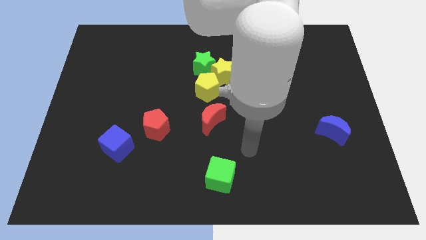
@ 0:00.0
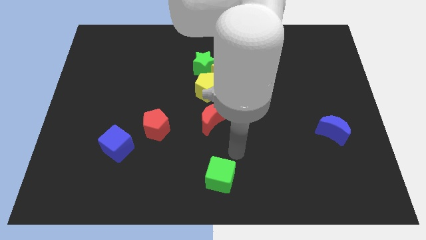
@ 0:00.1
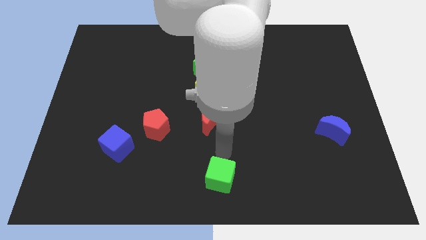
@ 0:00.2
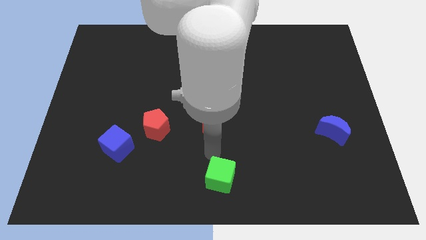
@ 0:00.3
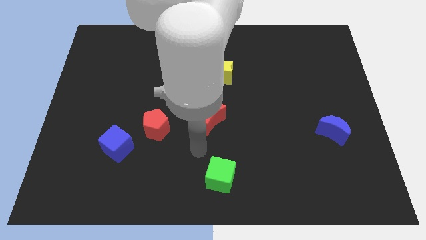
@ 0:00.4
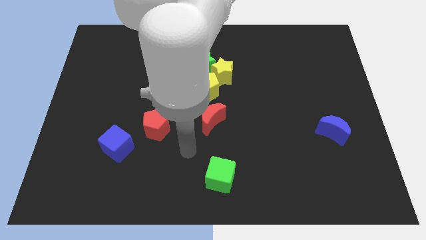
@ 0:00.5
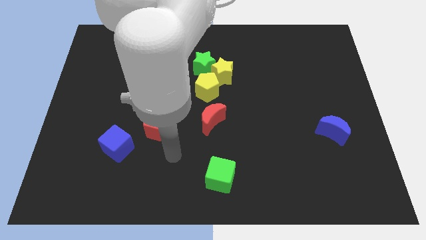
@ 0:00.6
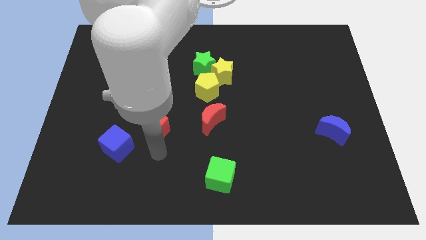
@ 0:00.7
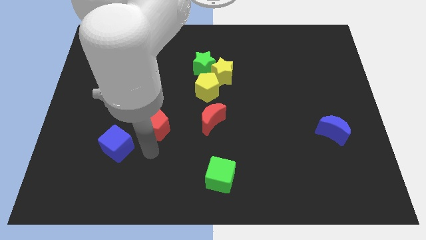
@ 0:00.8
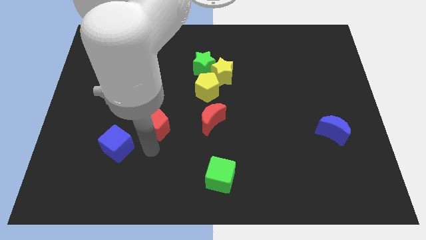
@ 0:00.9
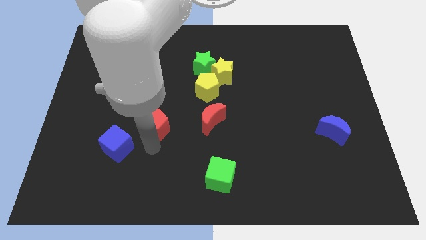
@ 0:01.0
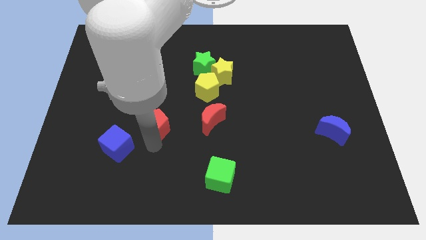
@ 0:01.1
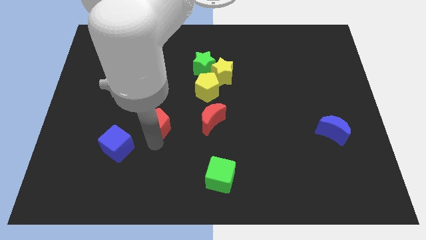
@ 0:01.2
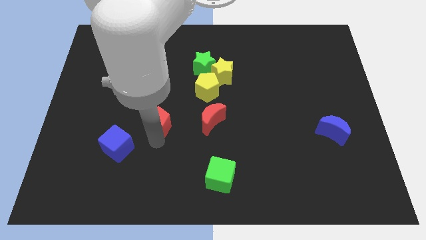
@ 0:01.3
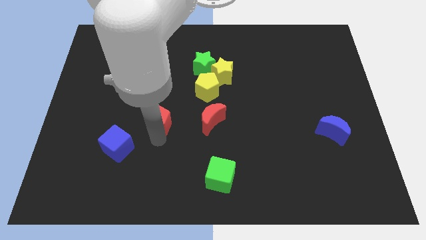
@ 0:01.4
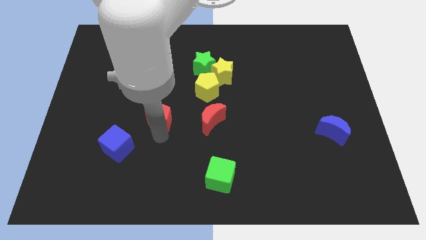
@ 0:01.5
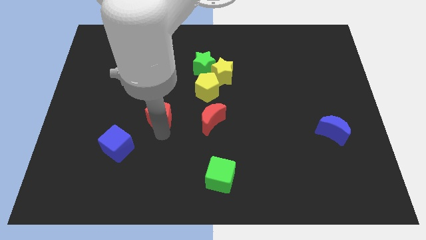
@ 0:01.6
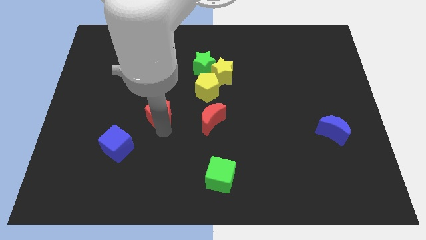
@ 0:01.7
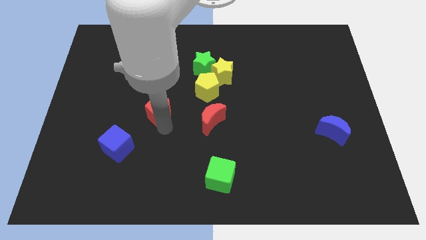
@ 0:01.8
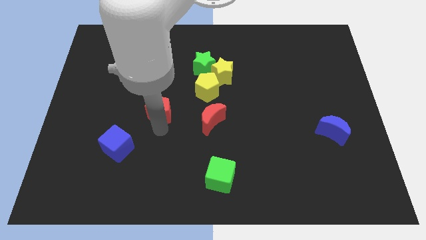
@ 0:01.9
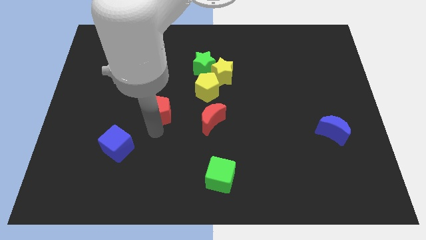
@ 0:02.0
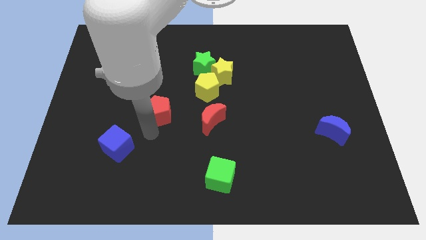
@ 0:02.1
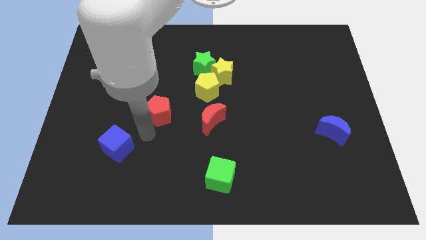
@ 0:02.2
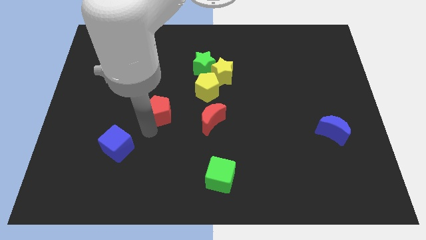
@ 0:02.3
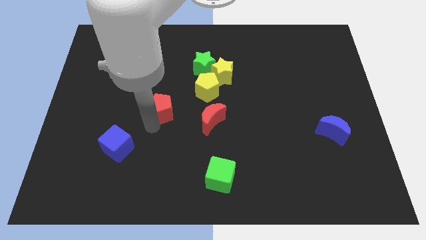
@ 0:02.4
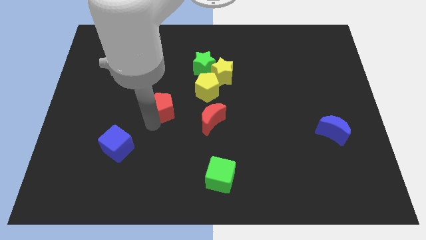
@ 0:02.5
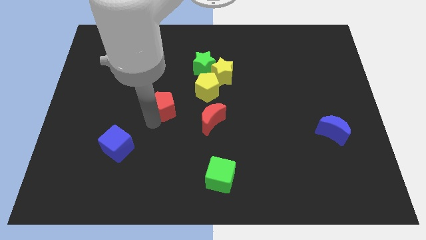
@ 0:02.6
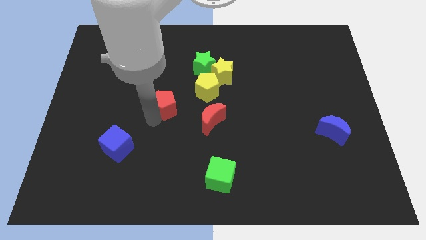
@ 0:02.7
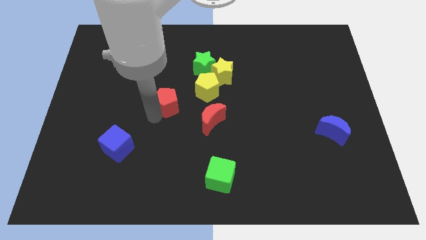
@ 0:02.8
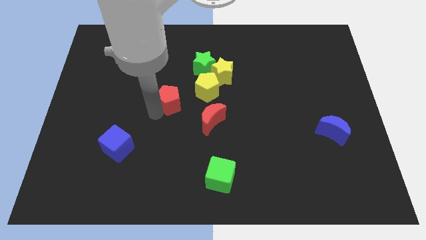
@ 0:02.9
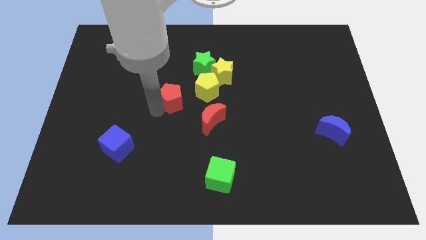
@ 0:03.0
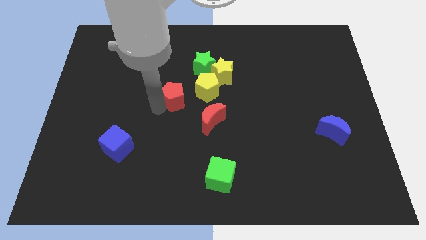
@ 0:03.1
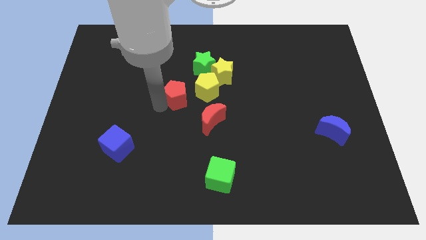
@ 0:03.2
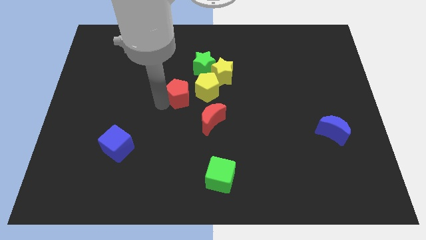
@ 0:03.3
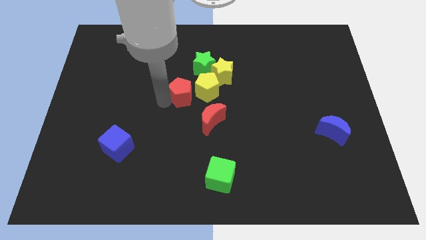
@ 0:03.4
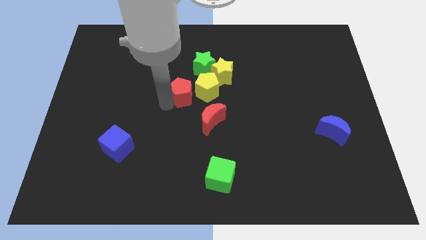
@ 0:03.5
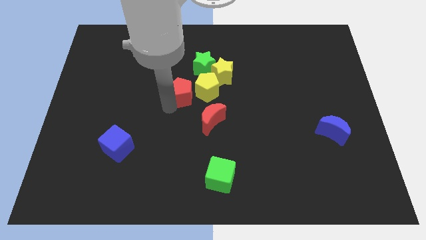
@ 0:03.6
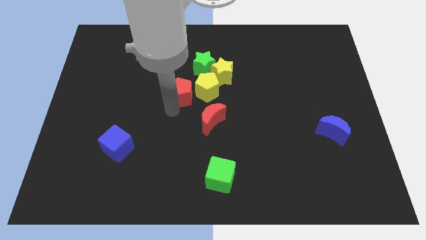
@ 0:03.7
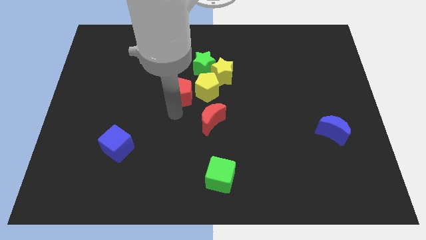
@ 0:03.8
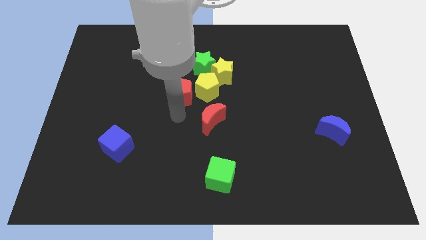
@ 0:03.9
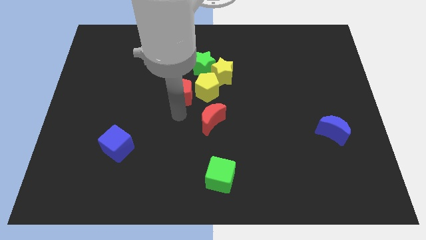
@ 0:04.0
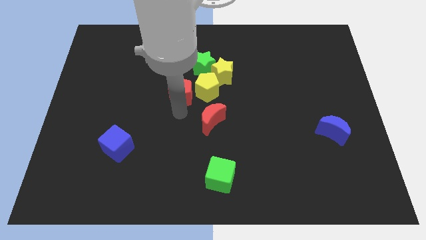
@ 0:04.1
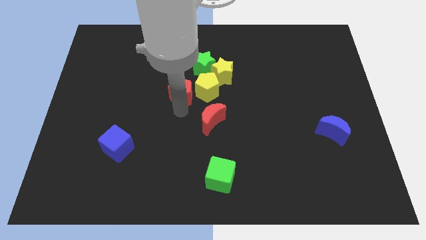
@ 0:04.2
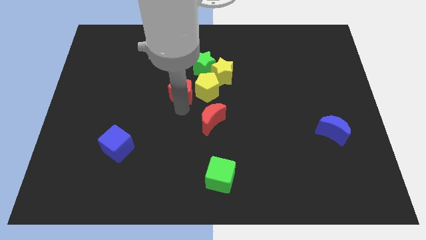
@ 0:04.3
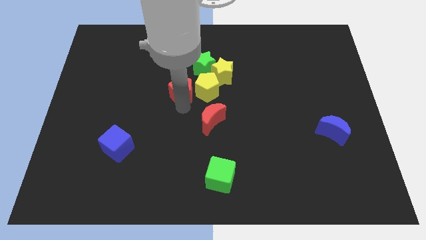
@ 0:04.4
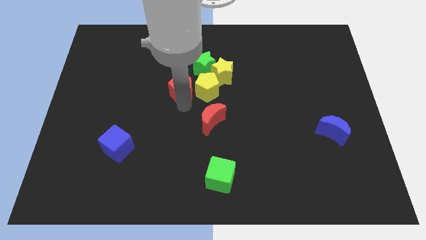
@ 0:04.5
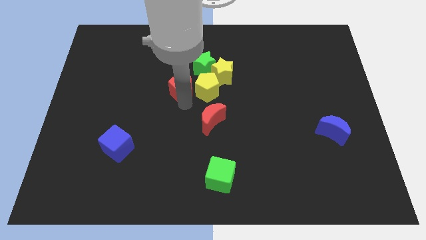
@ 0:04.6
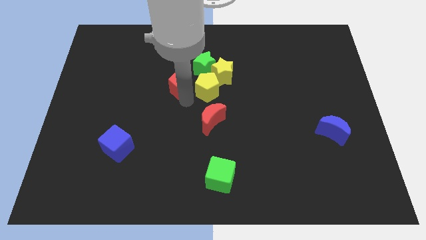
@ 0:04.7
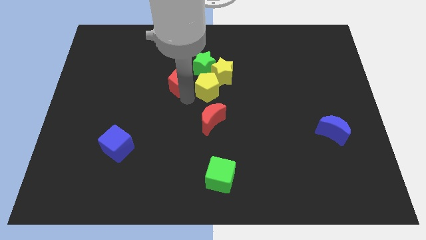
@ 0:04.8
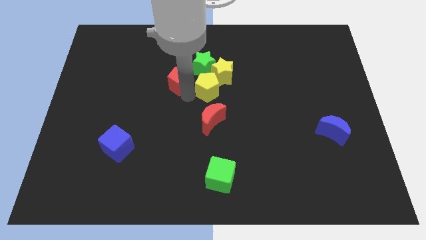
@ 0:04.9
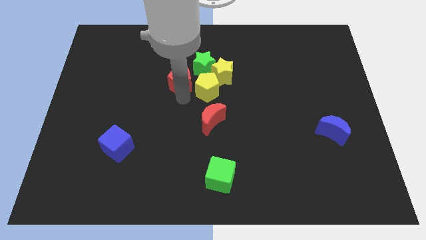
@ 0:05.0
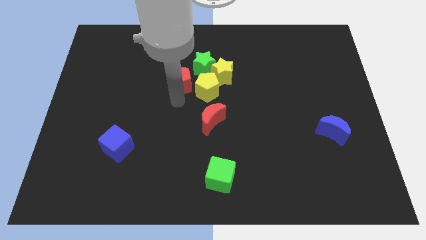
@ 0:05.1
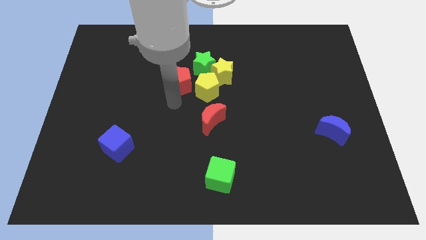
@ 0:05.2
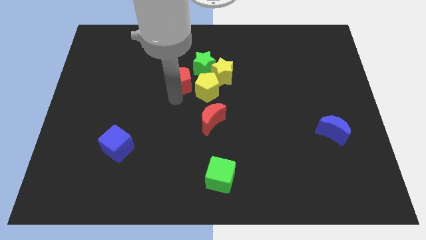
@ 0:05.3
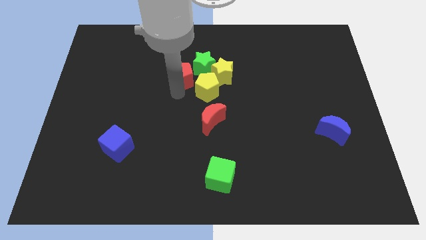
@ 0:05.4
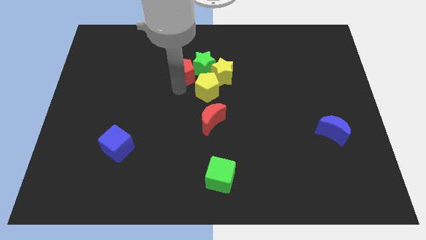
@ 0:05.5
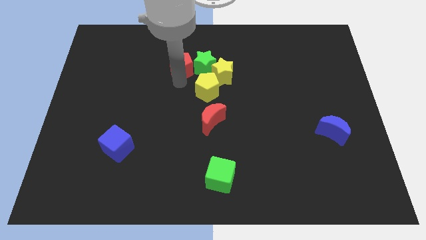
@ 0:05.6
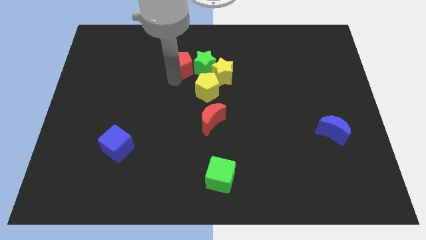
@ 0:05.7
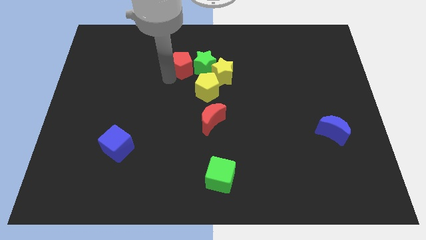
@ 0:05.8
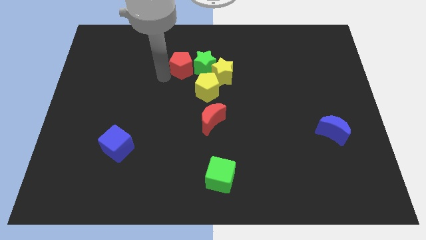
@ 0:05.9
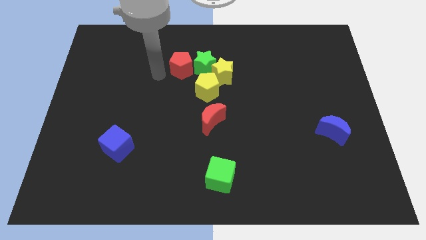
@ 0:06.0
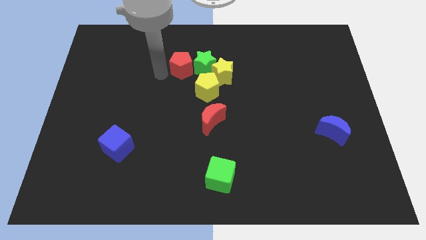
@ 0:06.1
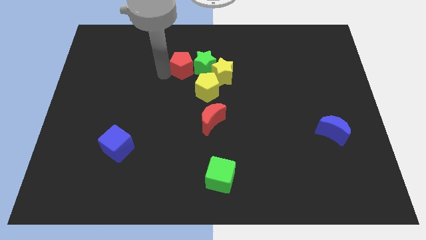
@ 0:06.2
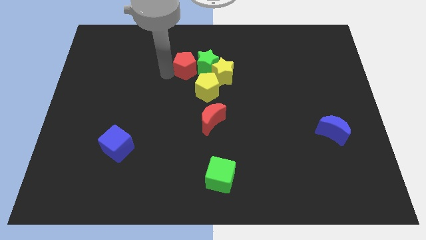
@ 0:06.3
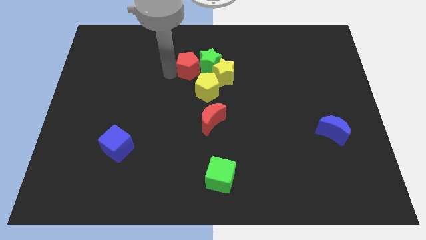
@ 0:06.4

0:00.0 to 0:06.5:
push the red pentagon to the top side of the yellow pentagon
